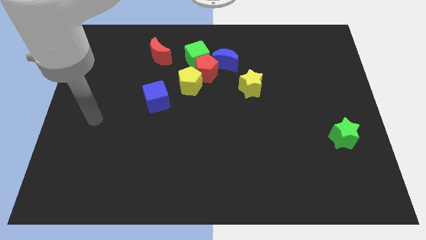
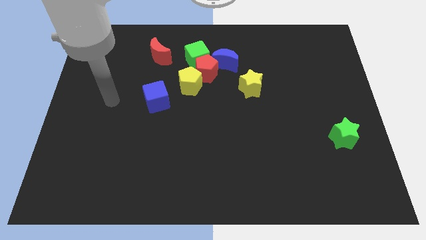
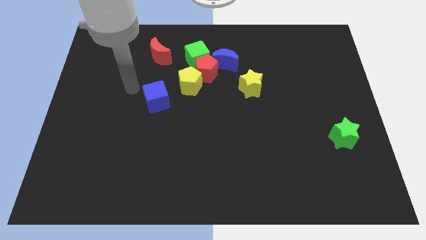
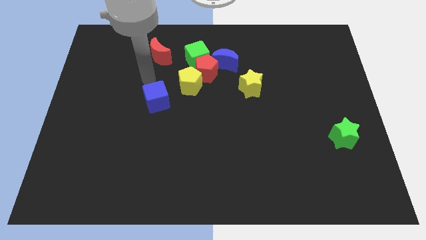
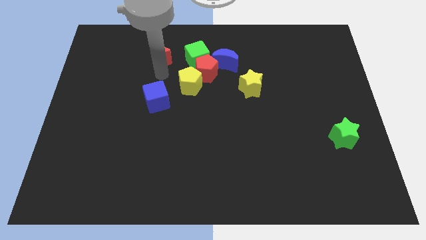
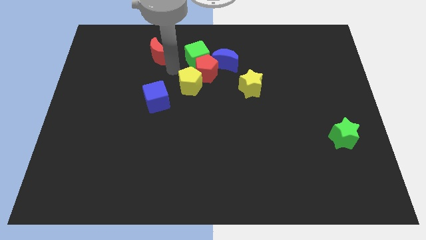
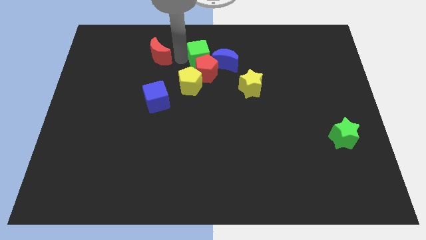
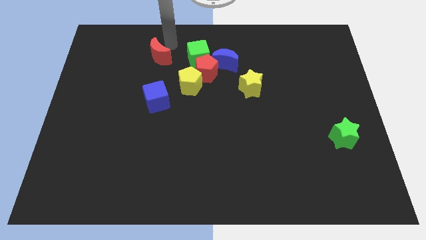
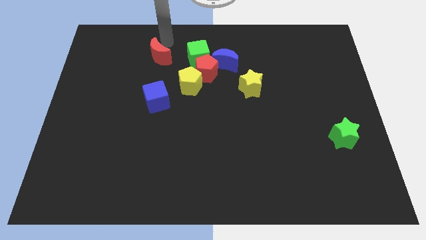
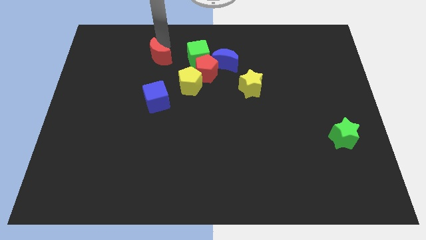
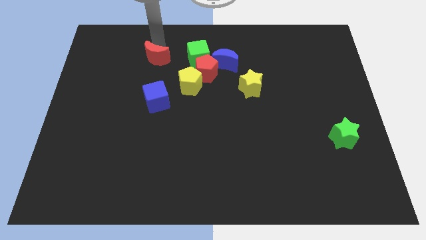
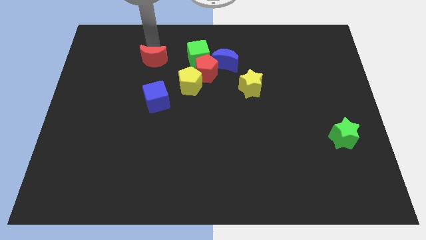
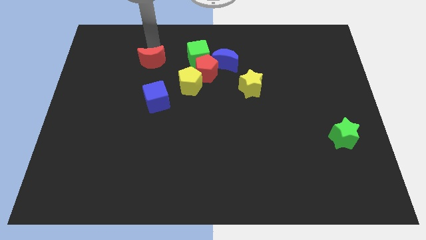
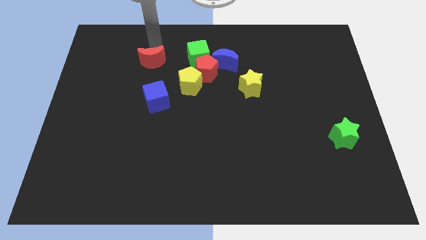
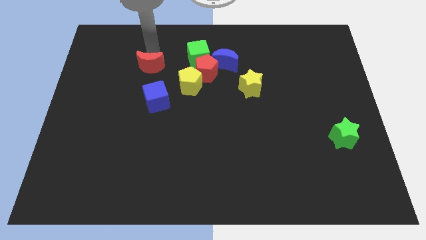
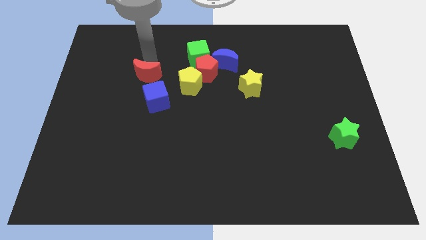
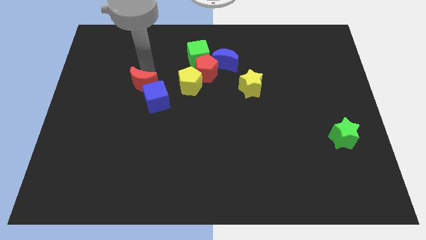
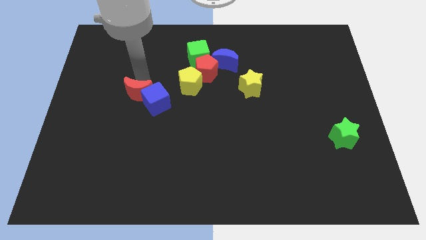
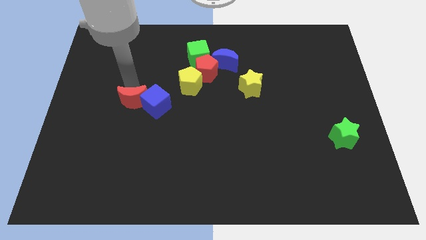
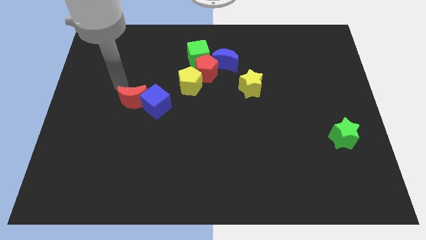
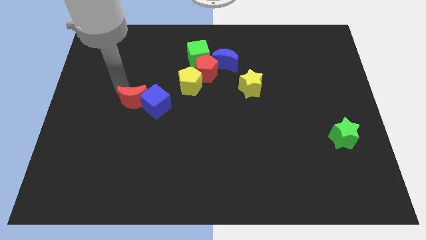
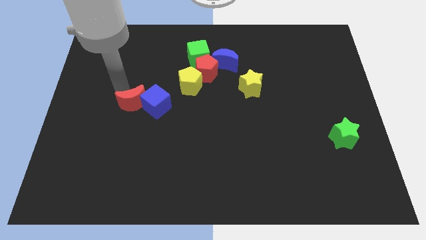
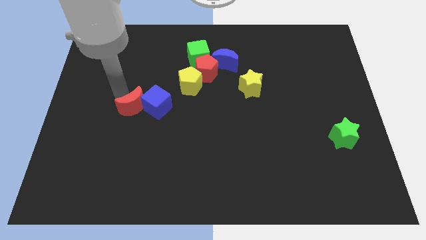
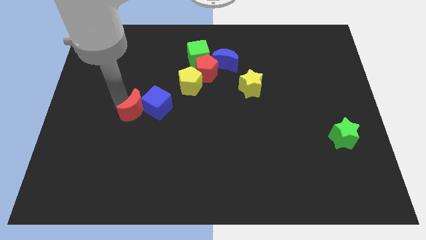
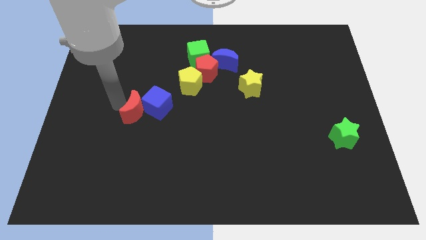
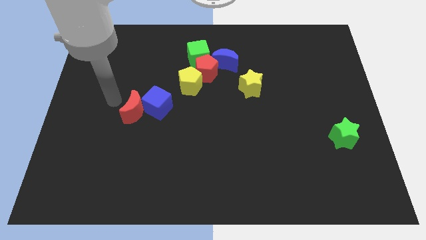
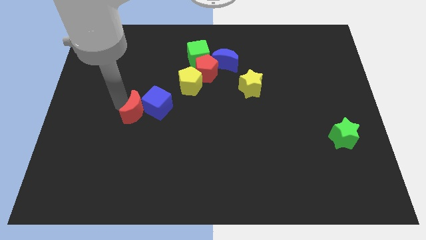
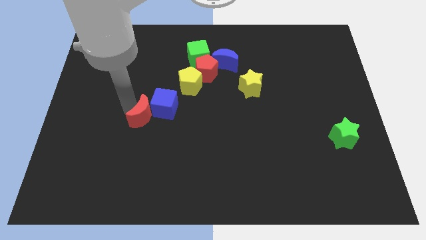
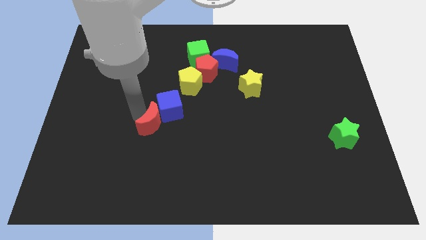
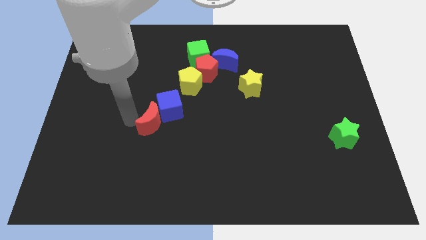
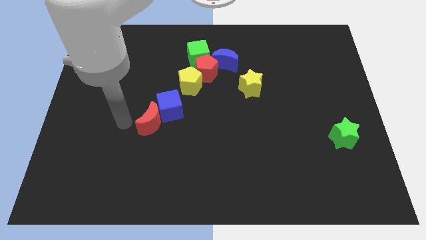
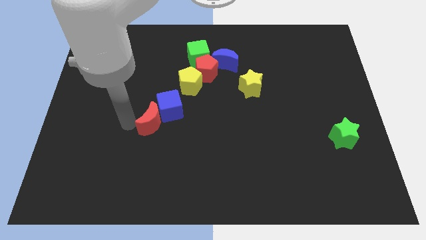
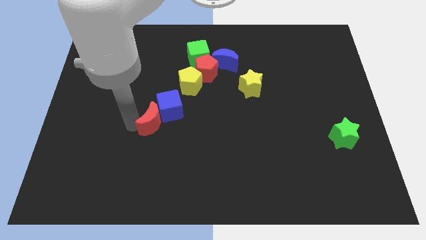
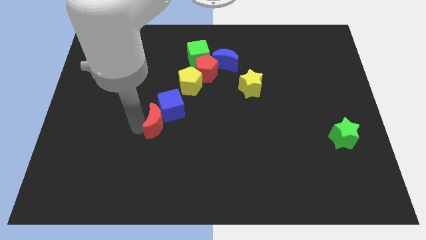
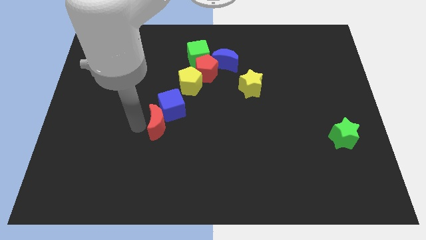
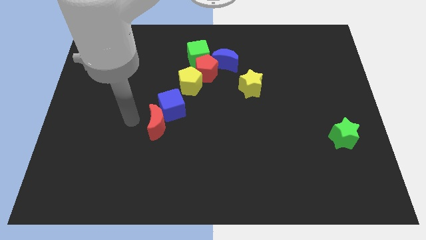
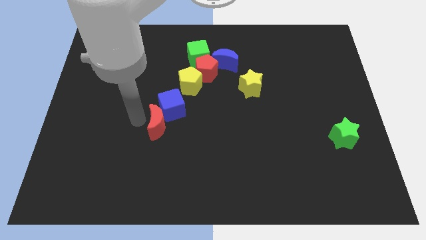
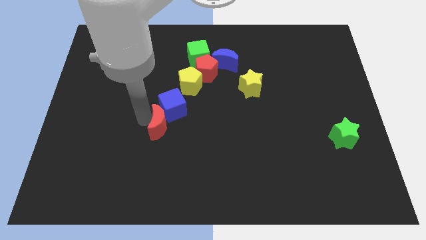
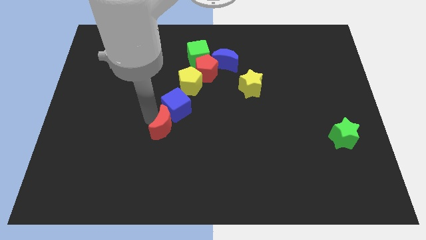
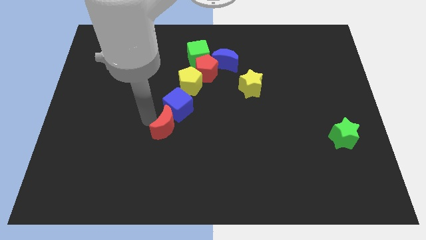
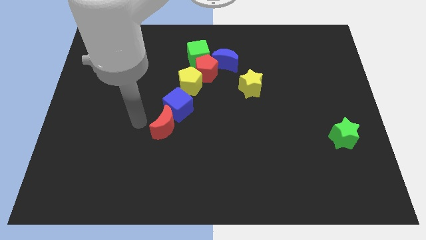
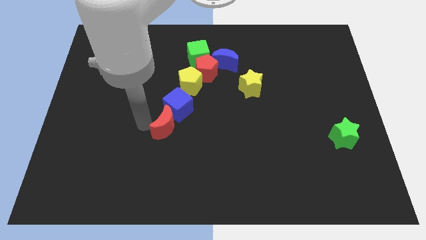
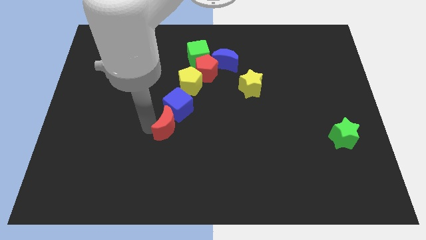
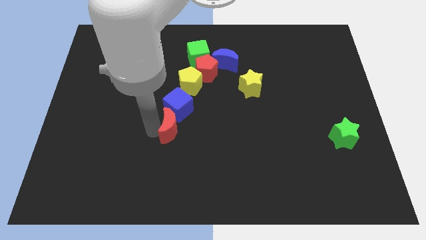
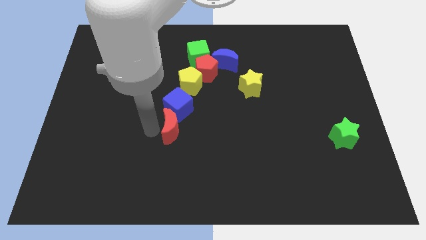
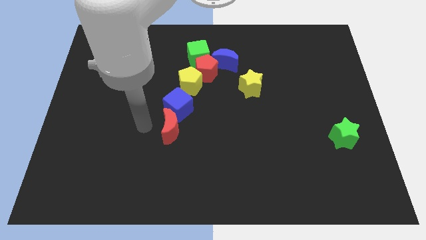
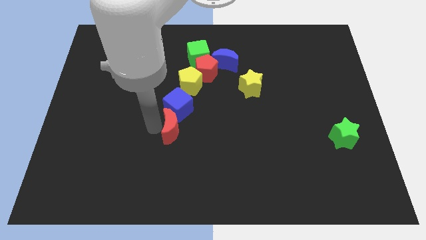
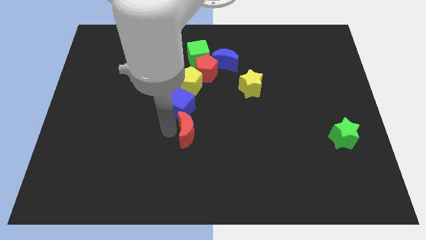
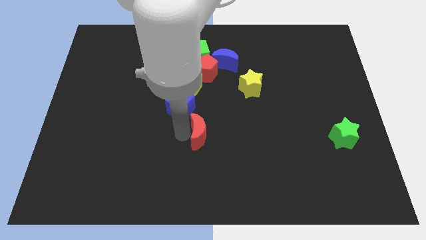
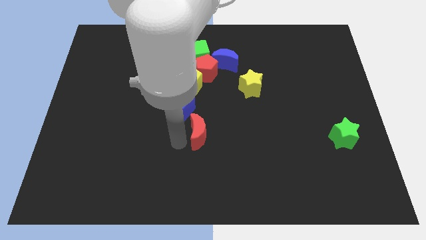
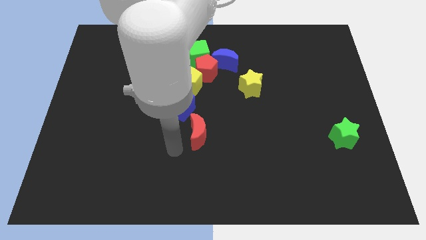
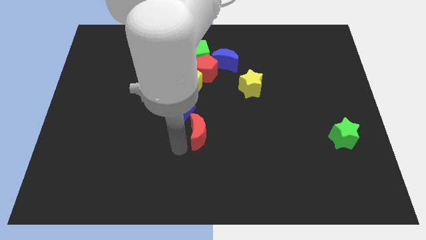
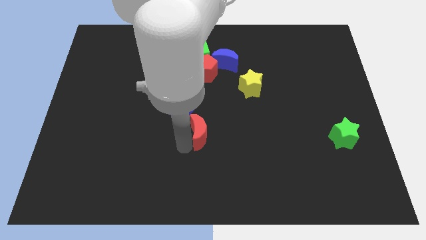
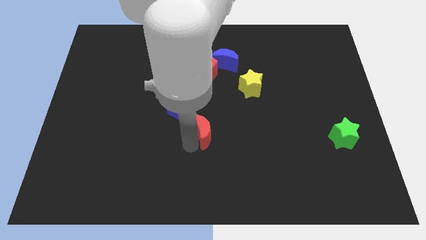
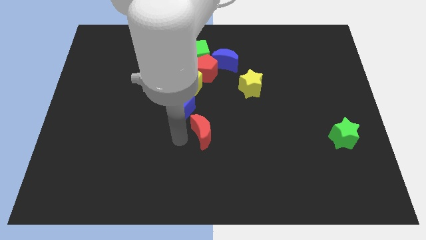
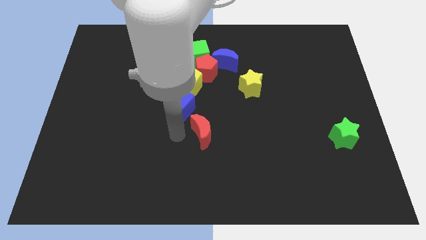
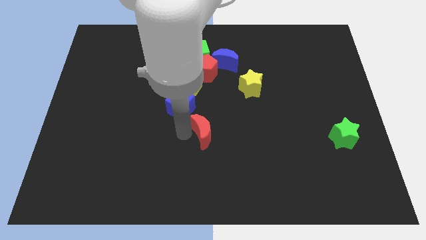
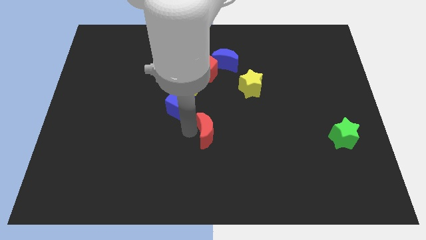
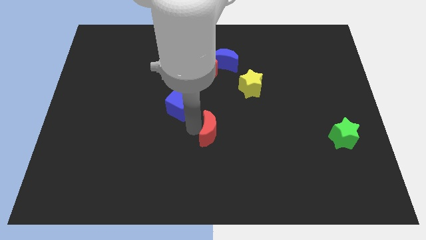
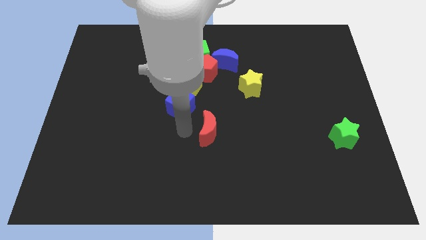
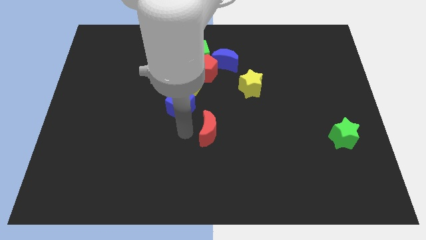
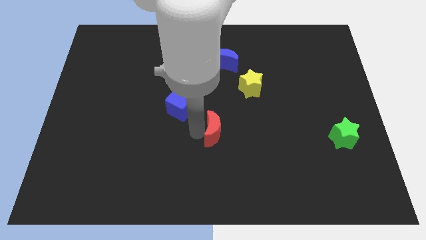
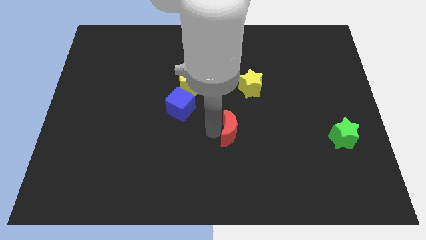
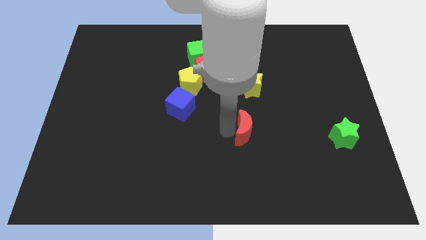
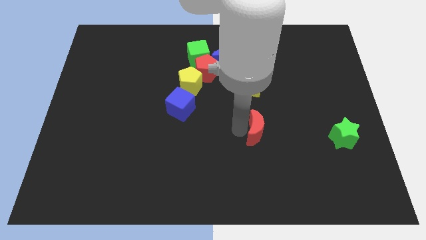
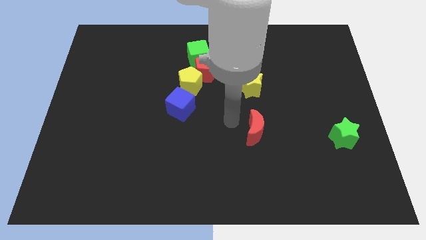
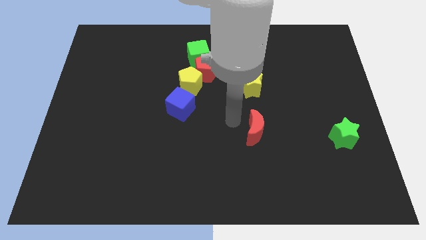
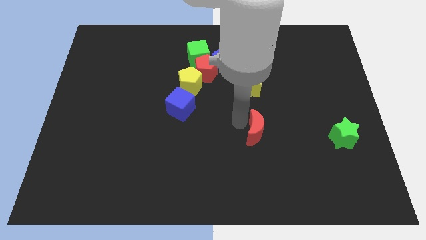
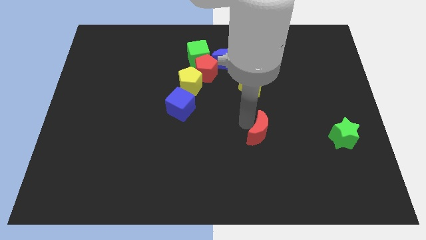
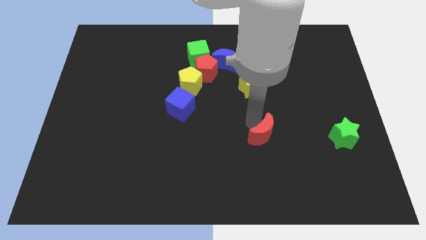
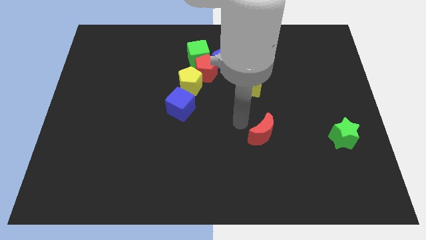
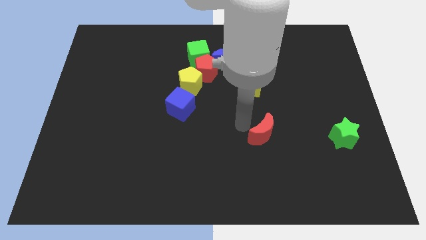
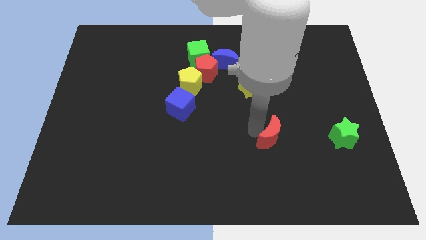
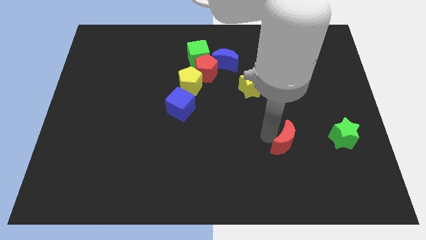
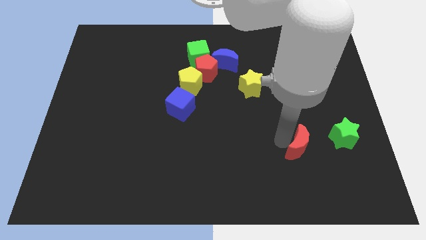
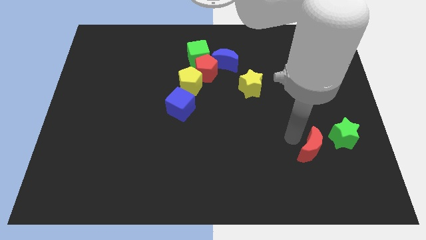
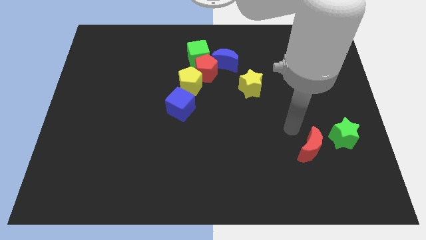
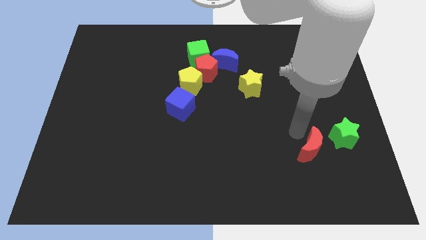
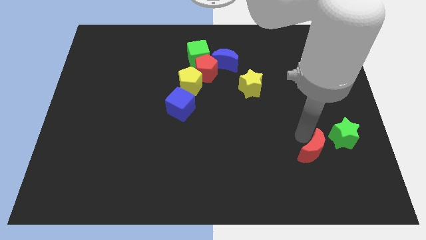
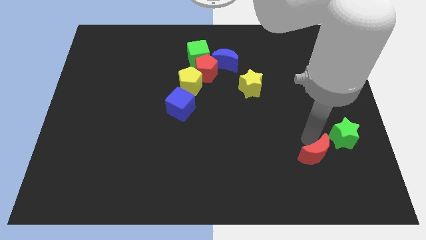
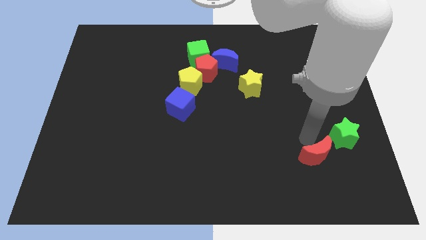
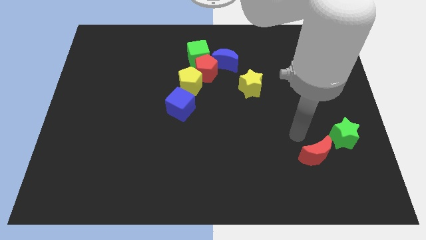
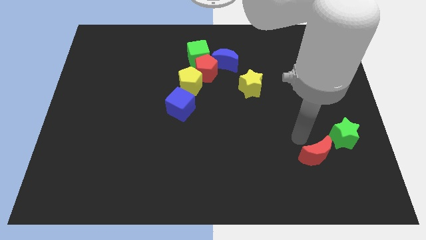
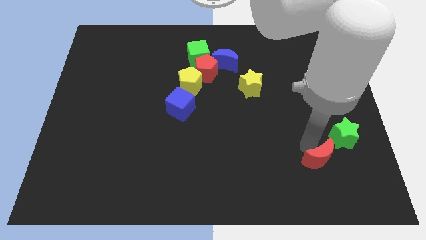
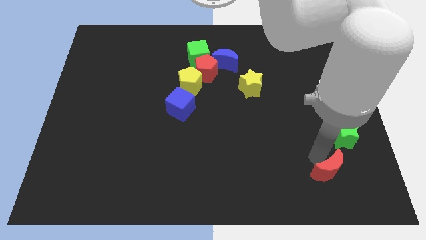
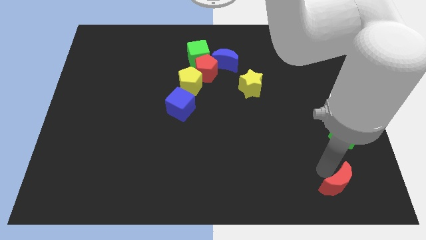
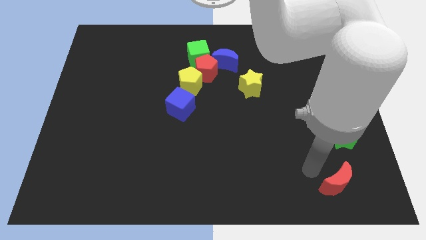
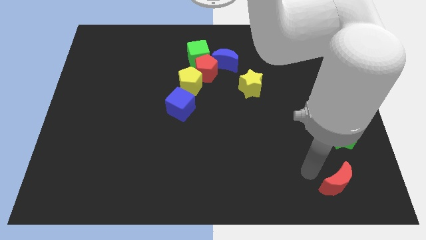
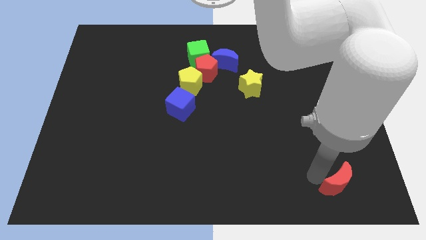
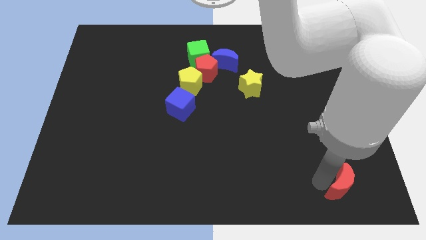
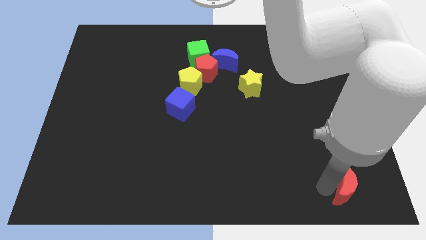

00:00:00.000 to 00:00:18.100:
move the red moon to the bottom right
